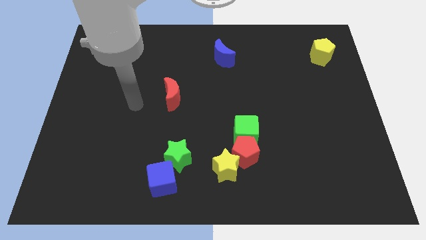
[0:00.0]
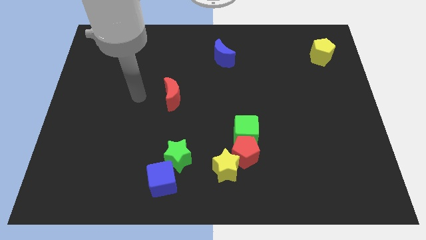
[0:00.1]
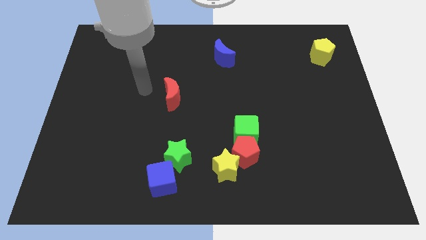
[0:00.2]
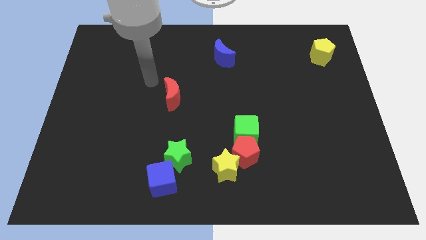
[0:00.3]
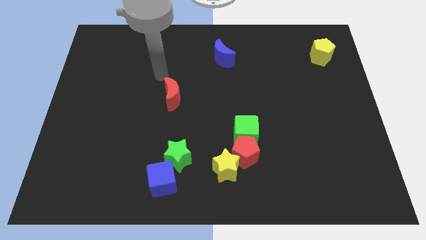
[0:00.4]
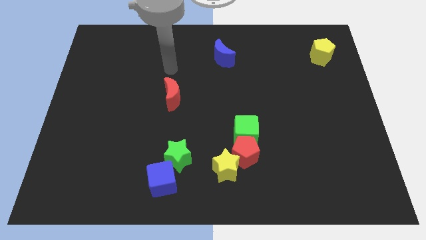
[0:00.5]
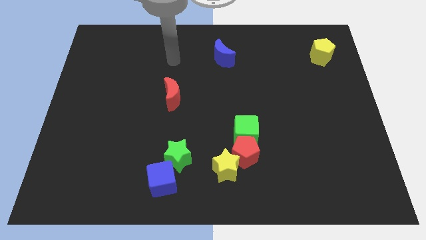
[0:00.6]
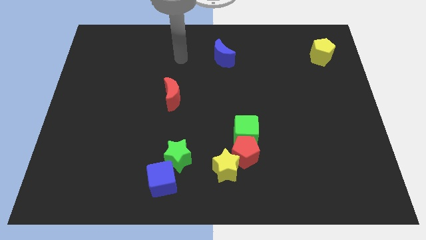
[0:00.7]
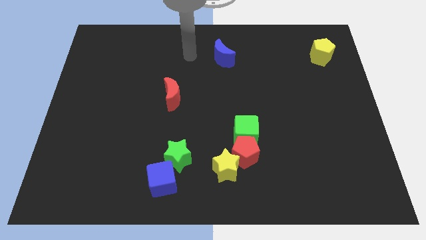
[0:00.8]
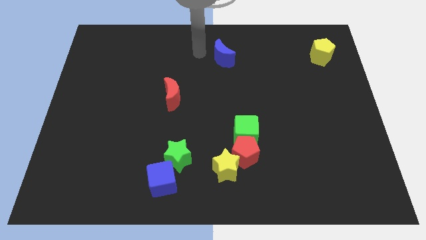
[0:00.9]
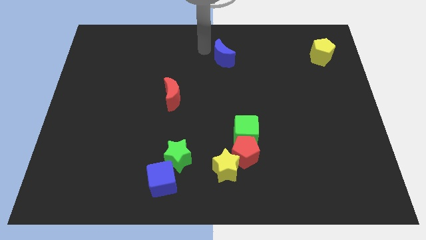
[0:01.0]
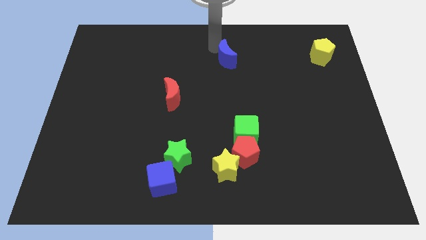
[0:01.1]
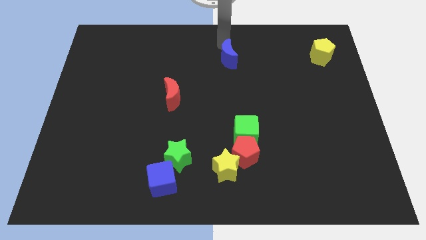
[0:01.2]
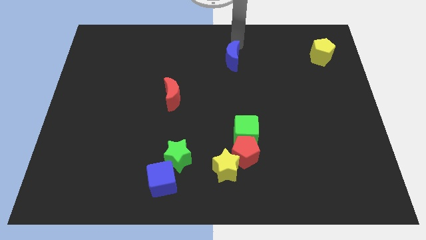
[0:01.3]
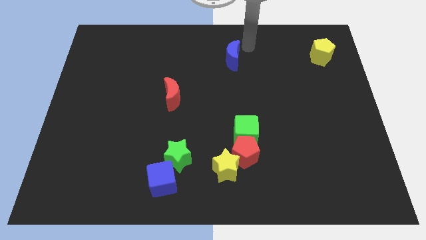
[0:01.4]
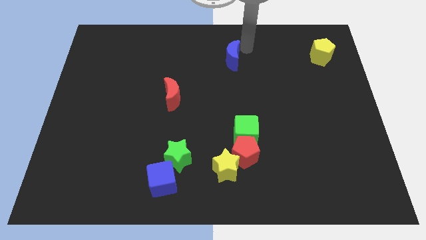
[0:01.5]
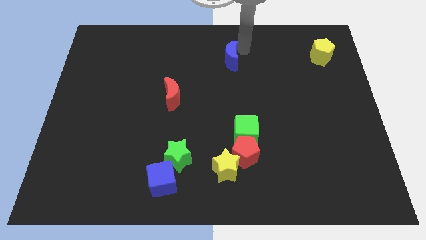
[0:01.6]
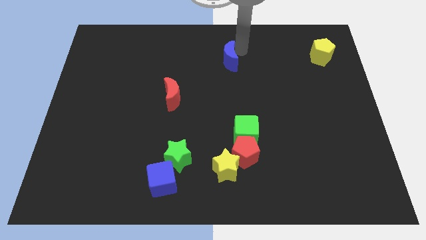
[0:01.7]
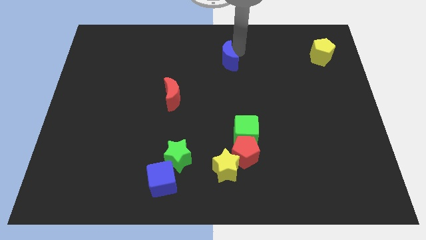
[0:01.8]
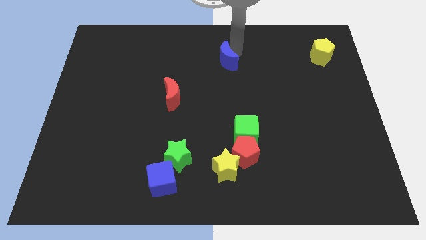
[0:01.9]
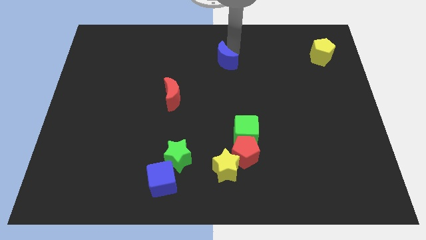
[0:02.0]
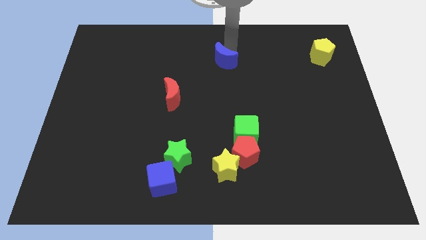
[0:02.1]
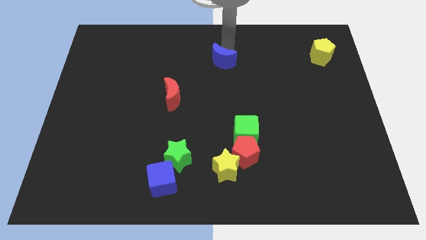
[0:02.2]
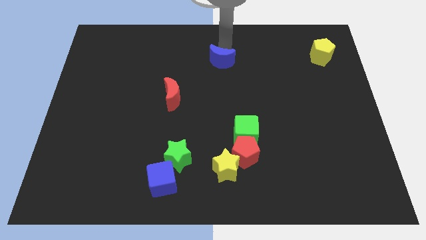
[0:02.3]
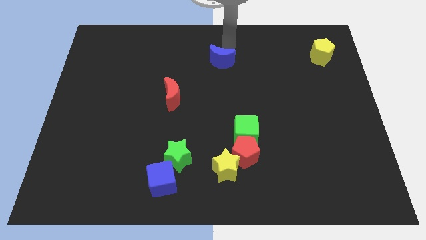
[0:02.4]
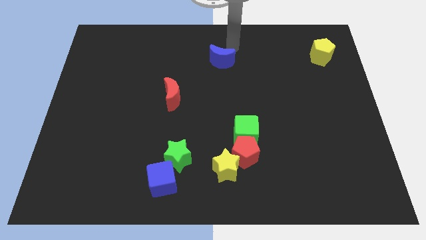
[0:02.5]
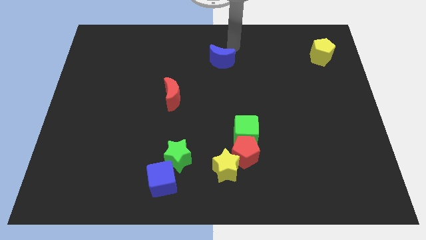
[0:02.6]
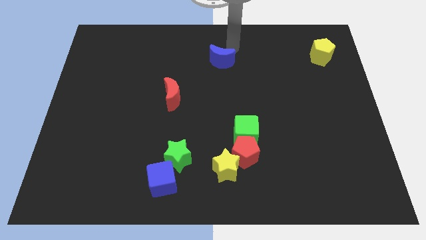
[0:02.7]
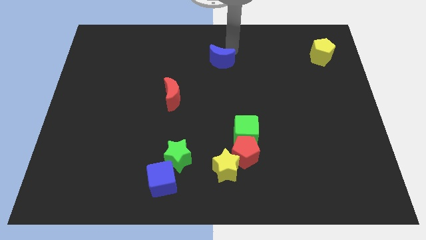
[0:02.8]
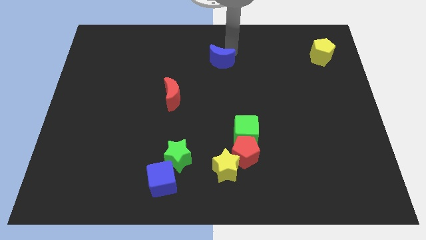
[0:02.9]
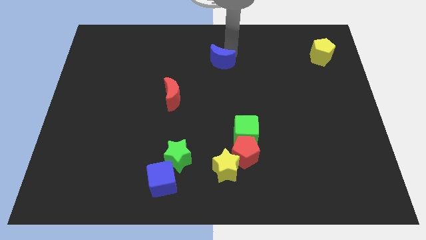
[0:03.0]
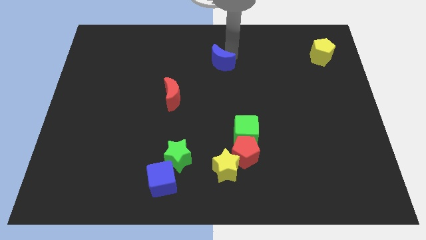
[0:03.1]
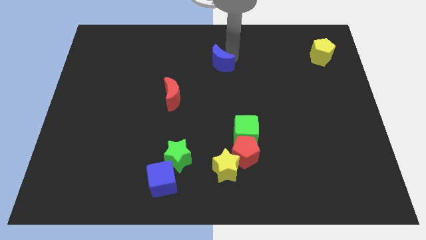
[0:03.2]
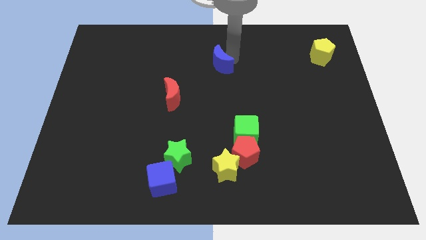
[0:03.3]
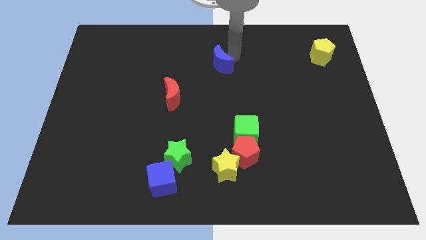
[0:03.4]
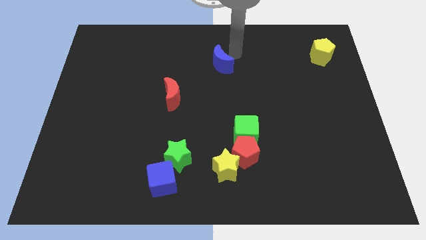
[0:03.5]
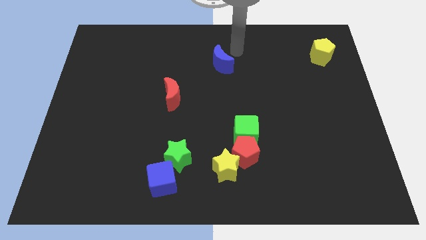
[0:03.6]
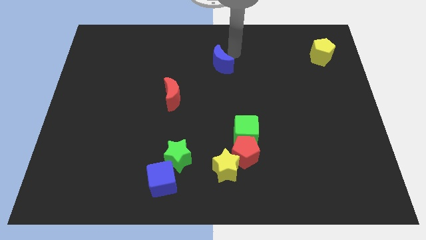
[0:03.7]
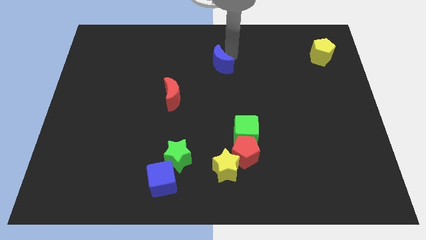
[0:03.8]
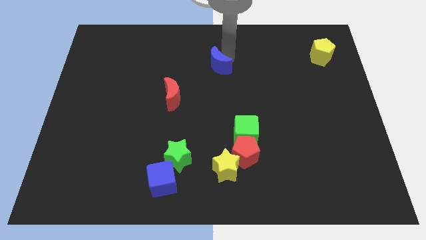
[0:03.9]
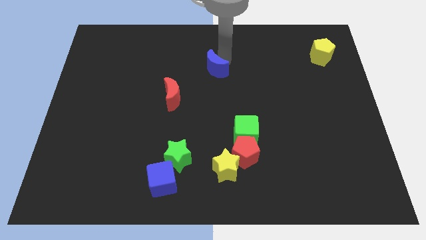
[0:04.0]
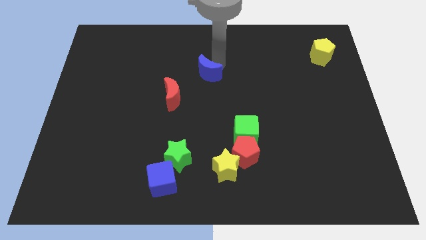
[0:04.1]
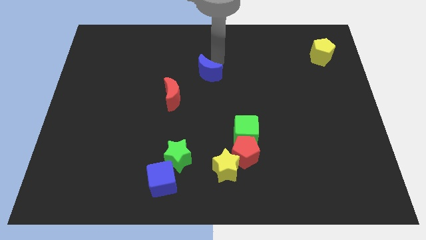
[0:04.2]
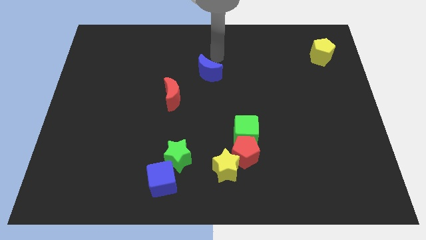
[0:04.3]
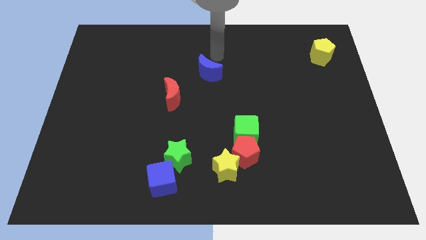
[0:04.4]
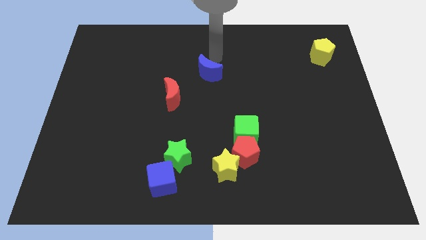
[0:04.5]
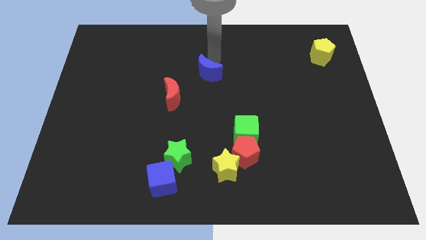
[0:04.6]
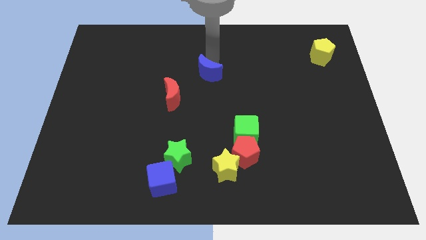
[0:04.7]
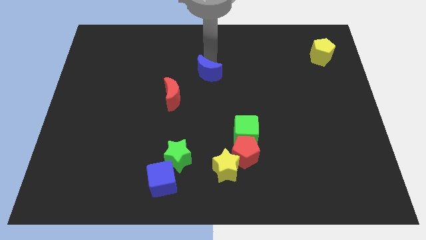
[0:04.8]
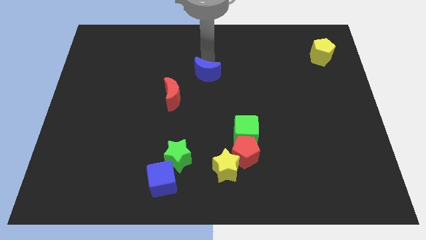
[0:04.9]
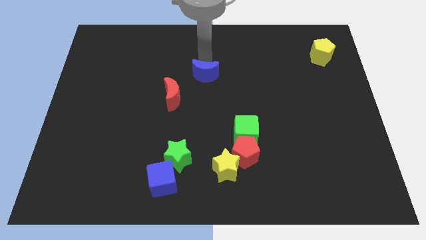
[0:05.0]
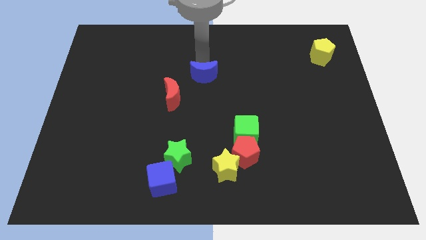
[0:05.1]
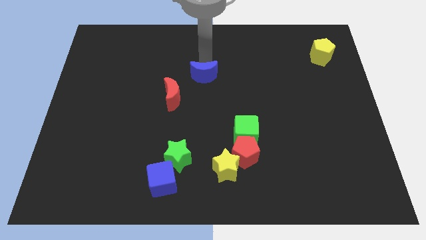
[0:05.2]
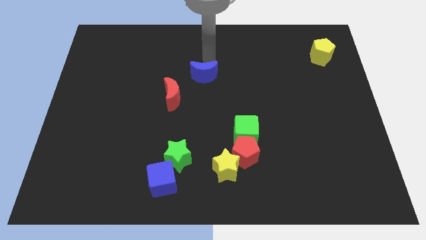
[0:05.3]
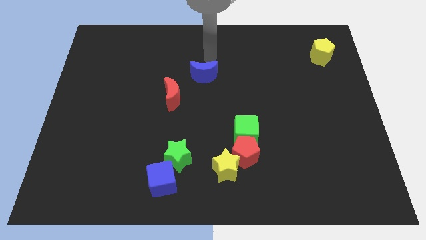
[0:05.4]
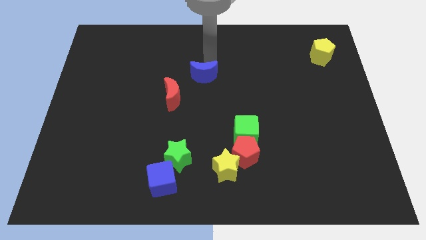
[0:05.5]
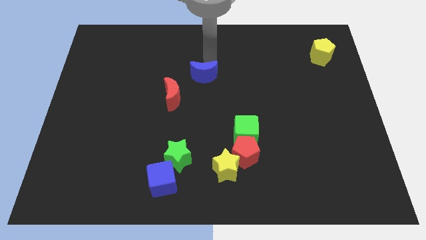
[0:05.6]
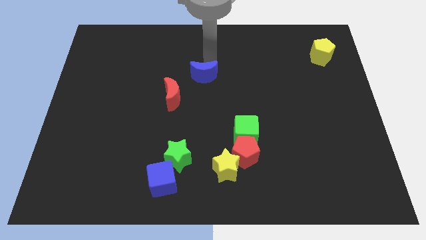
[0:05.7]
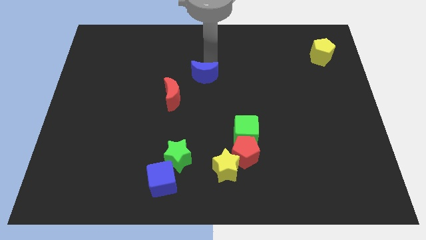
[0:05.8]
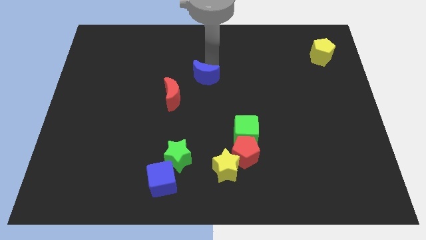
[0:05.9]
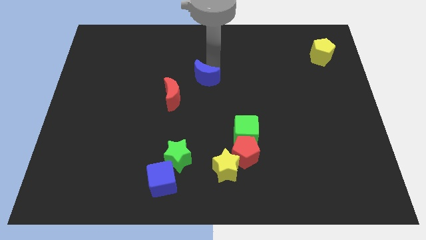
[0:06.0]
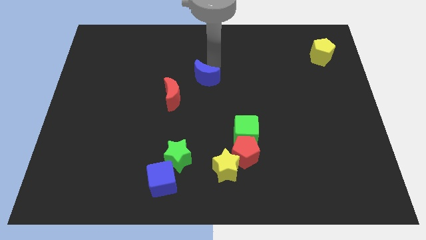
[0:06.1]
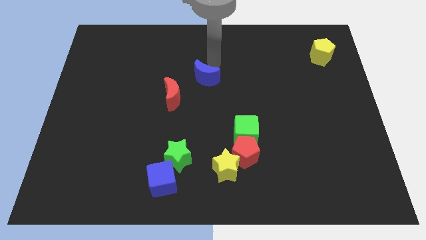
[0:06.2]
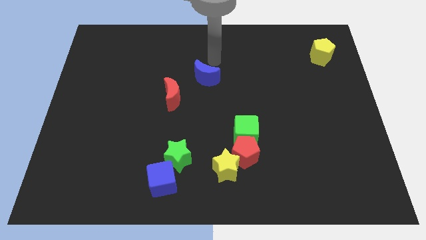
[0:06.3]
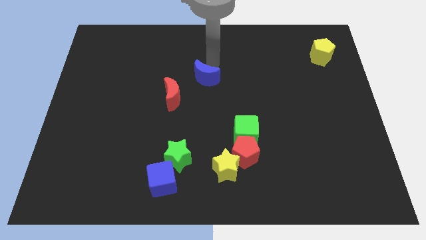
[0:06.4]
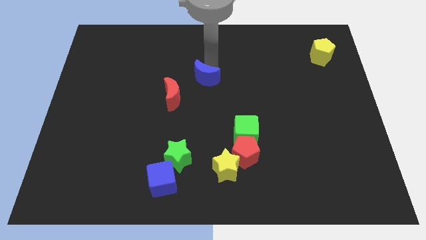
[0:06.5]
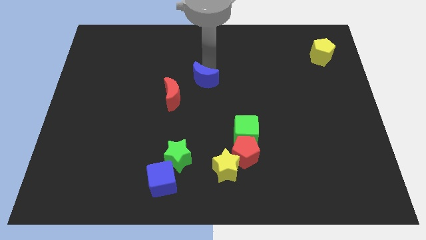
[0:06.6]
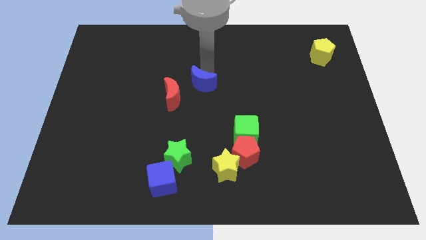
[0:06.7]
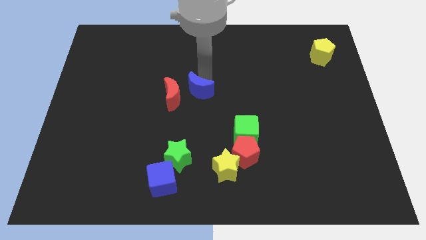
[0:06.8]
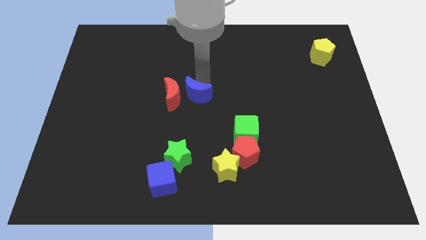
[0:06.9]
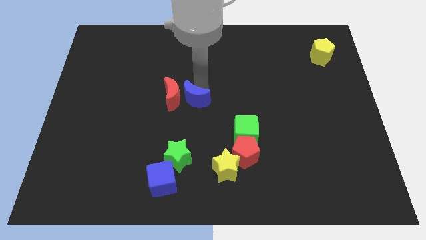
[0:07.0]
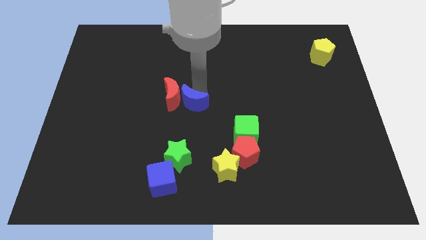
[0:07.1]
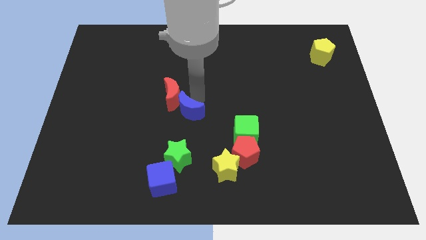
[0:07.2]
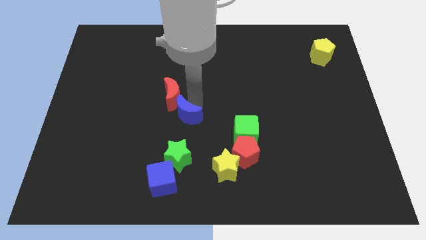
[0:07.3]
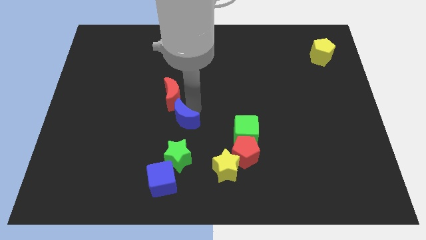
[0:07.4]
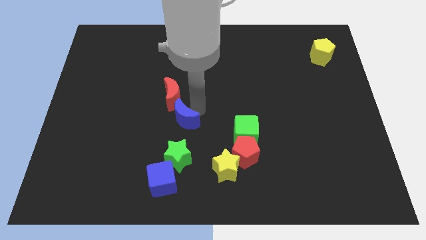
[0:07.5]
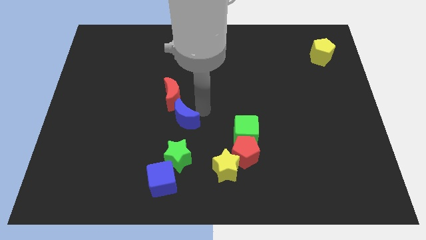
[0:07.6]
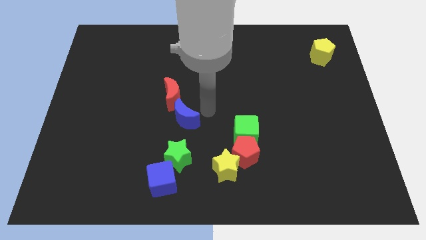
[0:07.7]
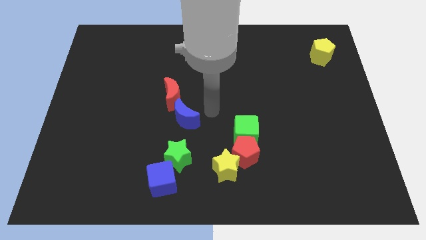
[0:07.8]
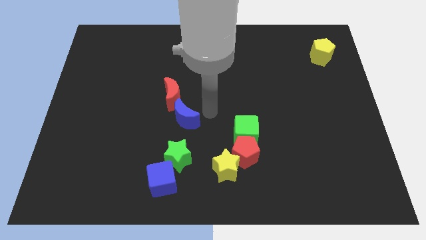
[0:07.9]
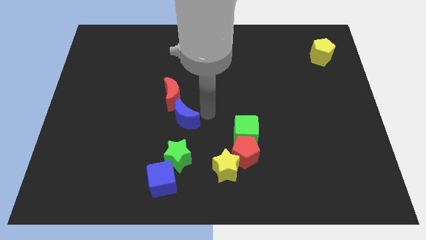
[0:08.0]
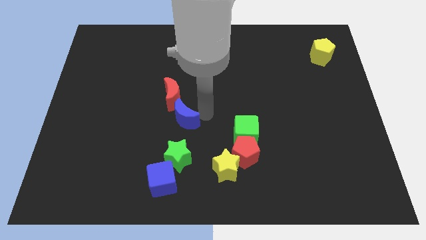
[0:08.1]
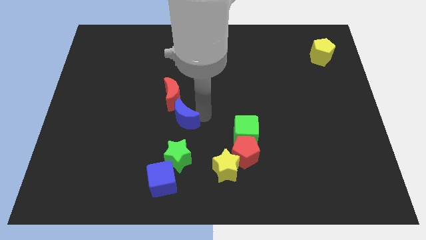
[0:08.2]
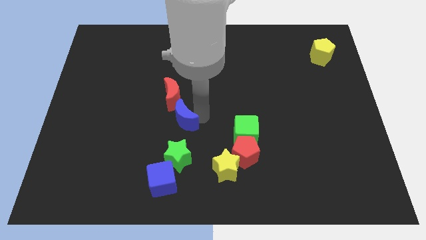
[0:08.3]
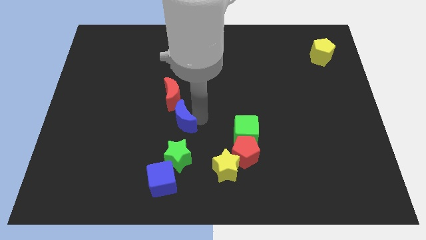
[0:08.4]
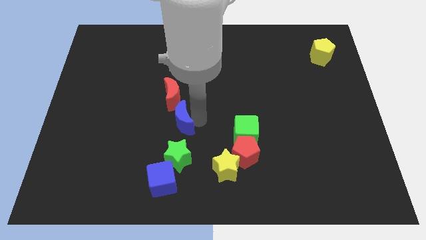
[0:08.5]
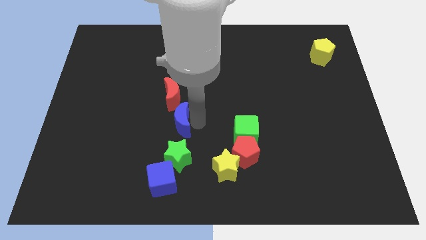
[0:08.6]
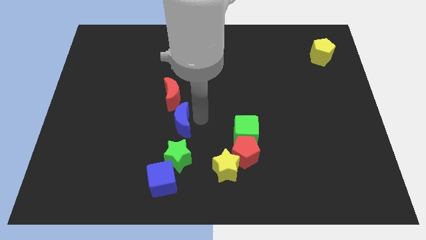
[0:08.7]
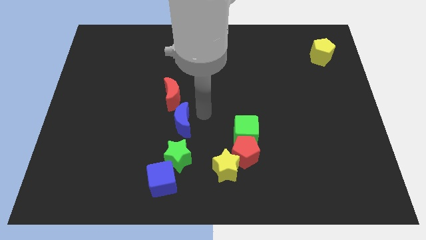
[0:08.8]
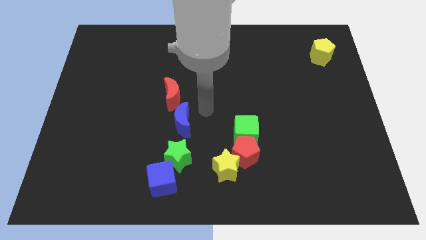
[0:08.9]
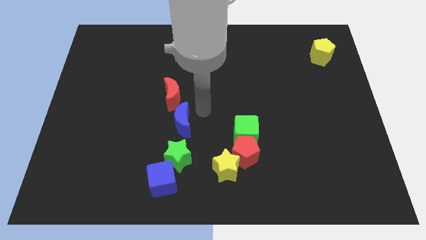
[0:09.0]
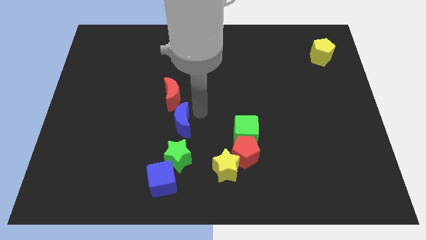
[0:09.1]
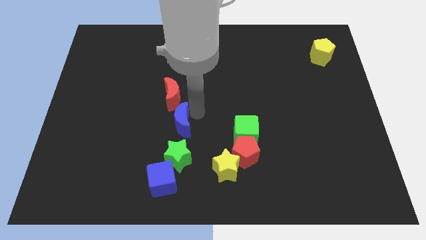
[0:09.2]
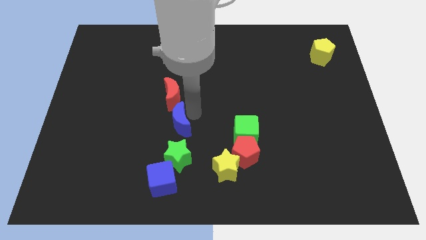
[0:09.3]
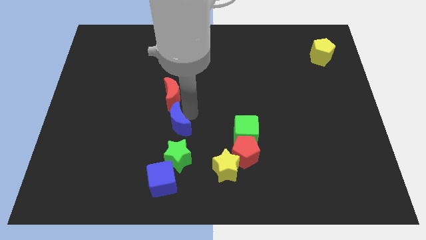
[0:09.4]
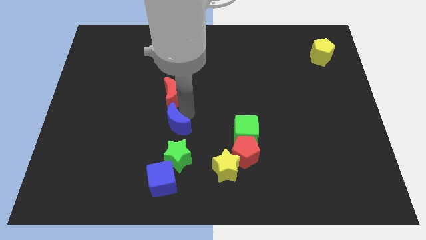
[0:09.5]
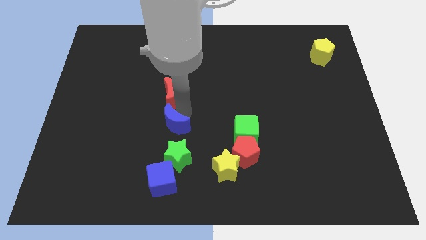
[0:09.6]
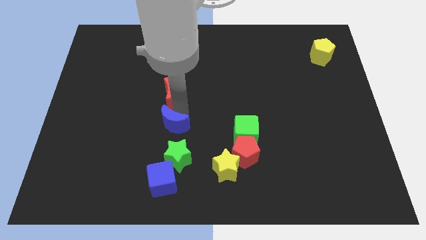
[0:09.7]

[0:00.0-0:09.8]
slide the blue moon to the top left side of the green star
